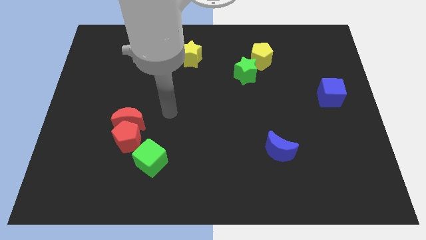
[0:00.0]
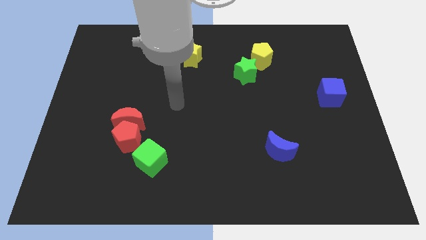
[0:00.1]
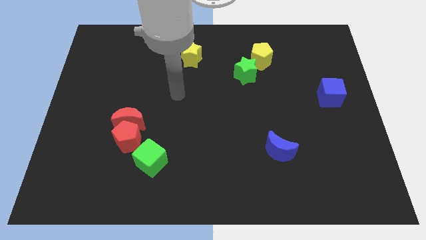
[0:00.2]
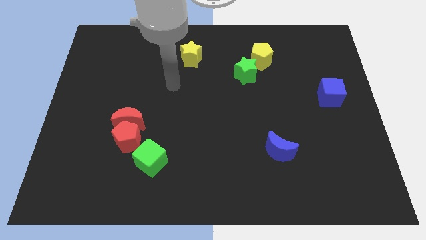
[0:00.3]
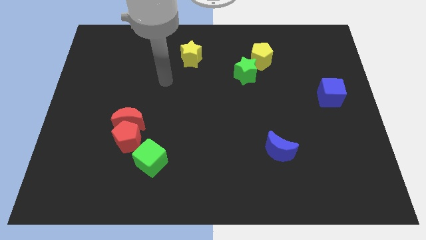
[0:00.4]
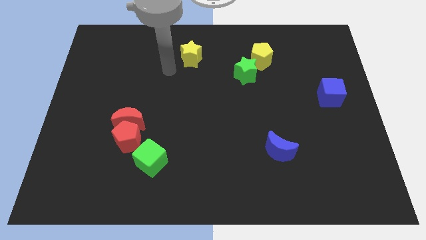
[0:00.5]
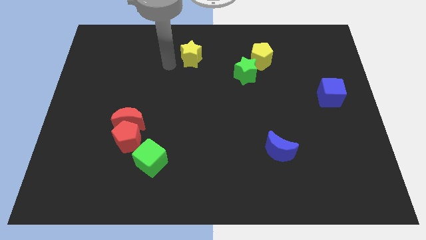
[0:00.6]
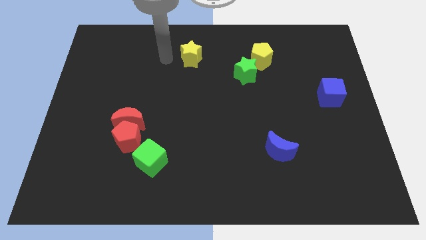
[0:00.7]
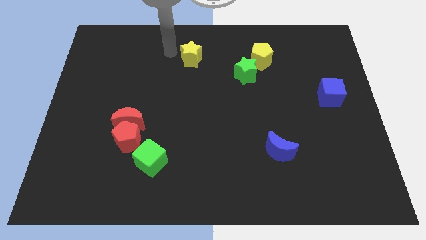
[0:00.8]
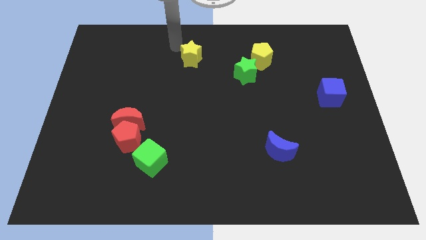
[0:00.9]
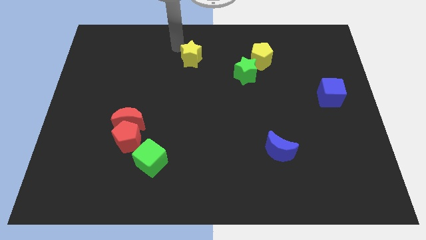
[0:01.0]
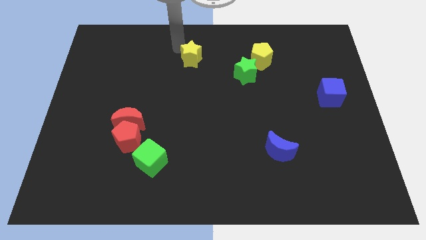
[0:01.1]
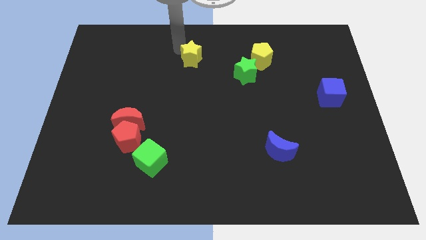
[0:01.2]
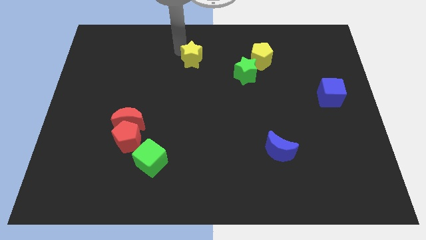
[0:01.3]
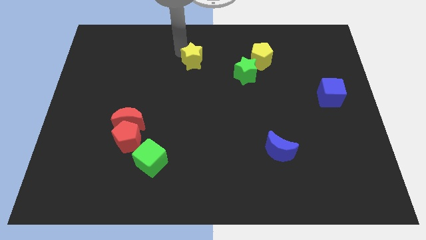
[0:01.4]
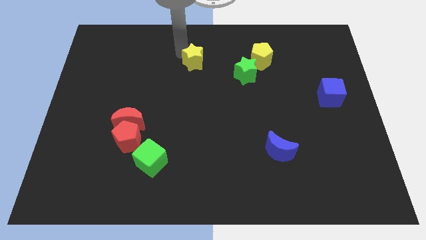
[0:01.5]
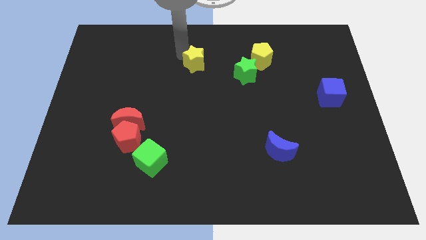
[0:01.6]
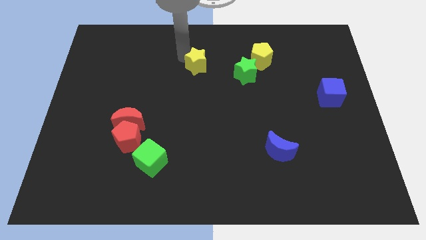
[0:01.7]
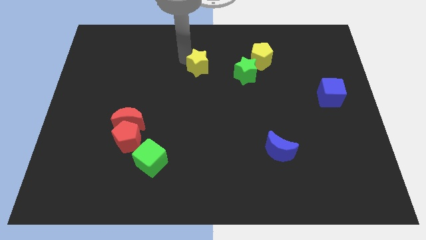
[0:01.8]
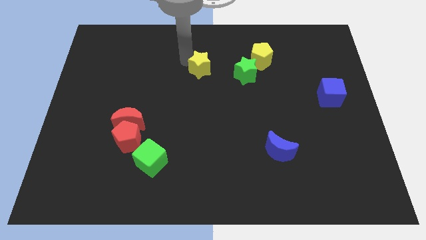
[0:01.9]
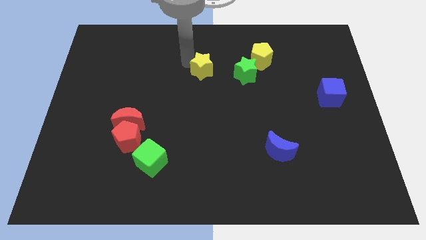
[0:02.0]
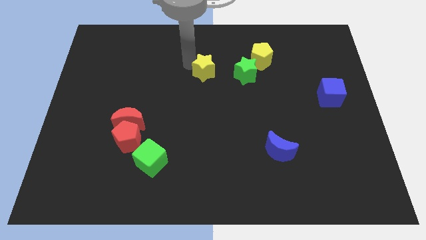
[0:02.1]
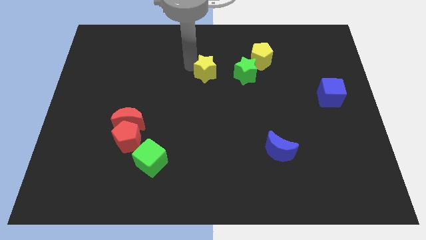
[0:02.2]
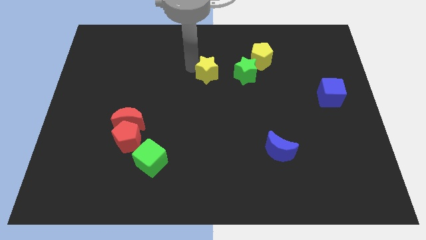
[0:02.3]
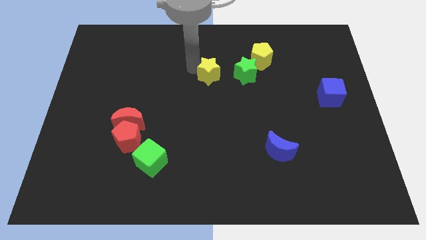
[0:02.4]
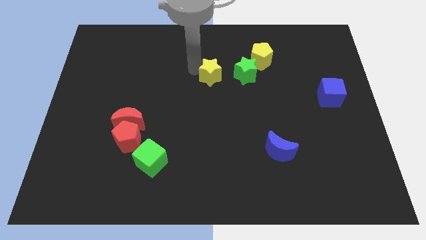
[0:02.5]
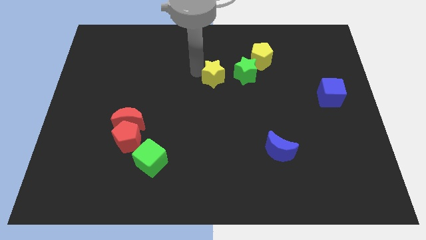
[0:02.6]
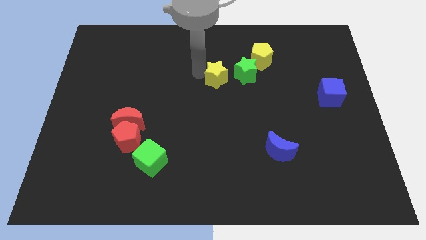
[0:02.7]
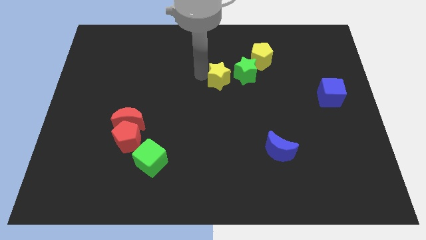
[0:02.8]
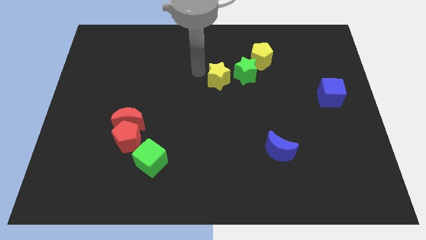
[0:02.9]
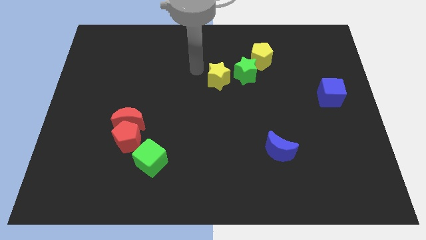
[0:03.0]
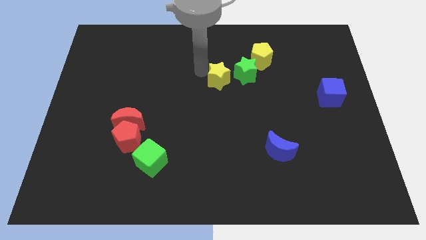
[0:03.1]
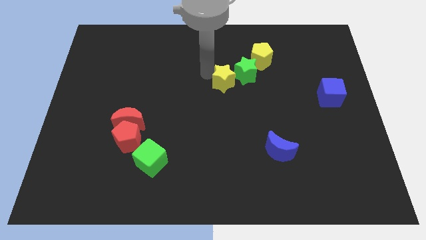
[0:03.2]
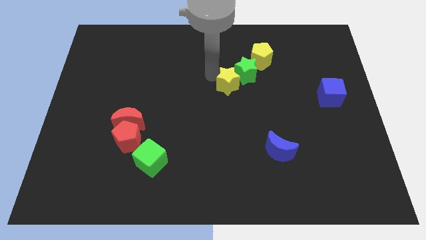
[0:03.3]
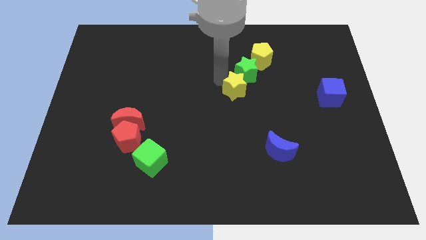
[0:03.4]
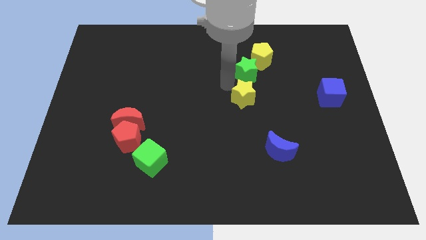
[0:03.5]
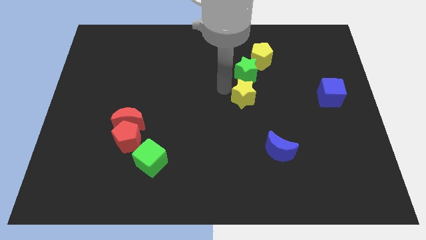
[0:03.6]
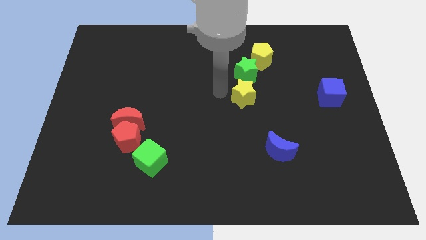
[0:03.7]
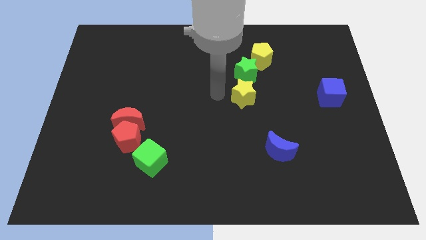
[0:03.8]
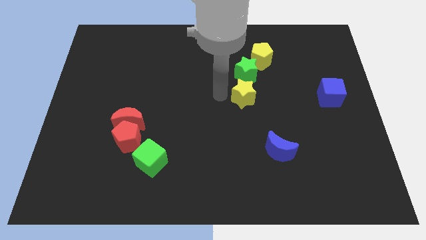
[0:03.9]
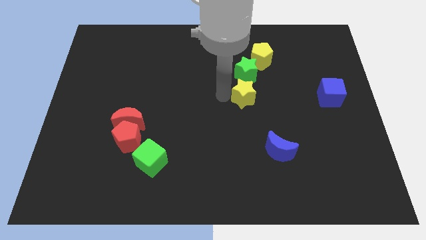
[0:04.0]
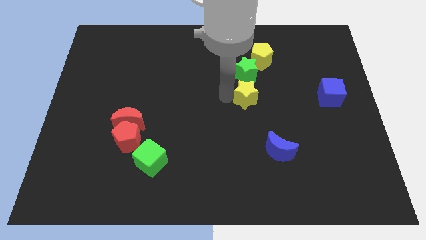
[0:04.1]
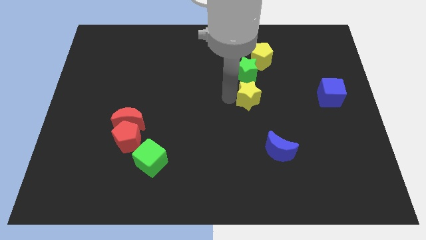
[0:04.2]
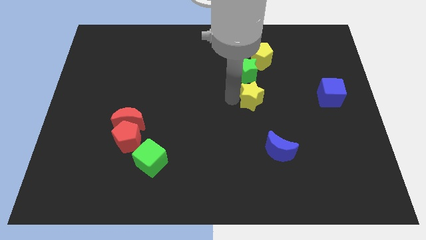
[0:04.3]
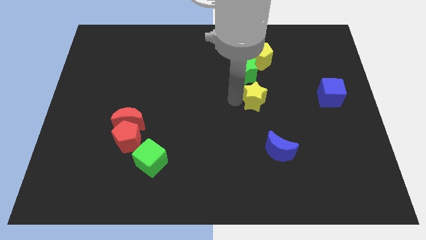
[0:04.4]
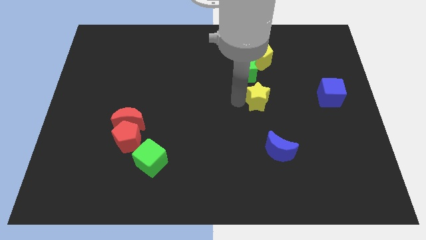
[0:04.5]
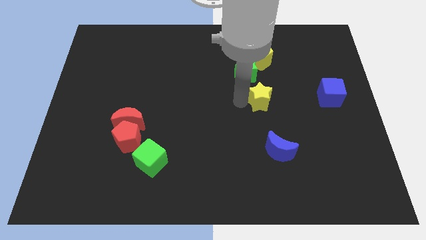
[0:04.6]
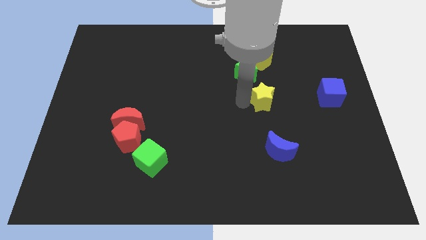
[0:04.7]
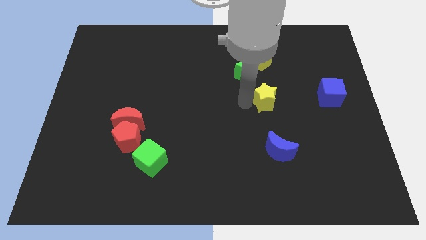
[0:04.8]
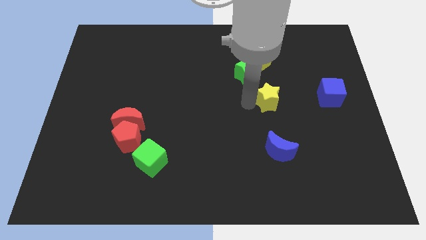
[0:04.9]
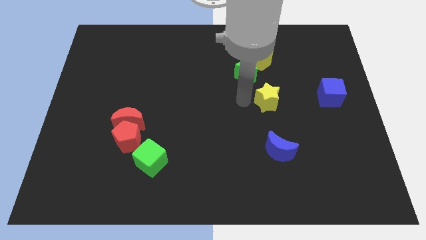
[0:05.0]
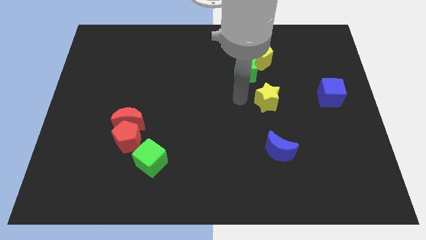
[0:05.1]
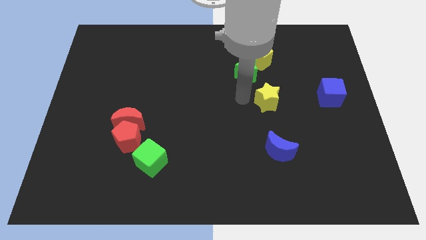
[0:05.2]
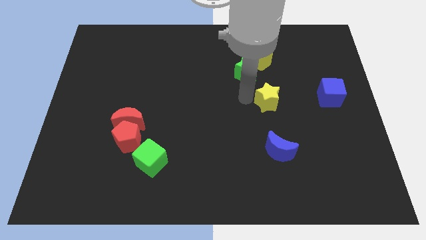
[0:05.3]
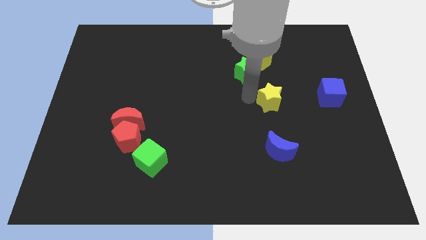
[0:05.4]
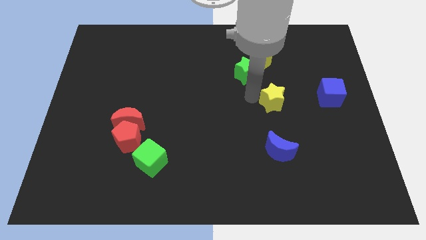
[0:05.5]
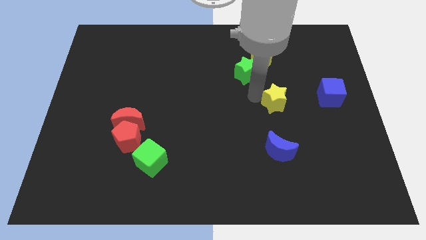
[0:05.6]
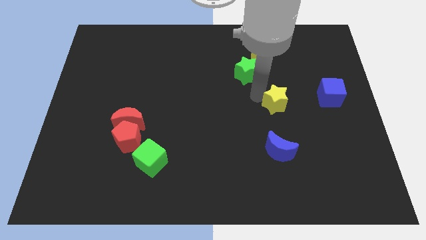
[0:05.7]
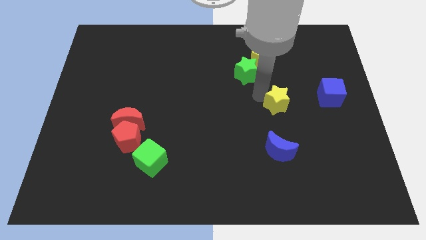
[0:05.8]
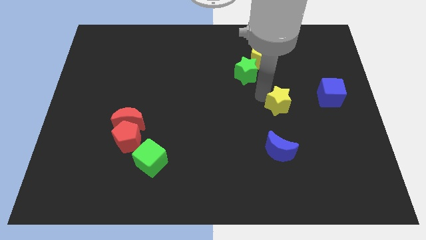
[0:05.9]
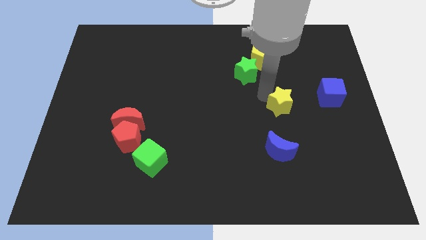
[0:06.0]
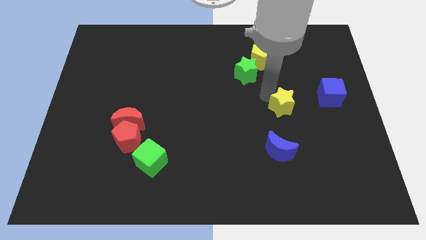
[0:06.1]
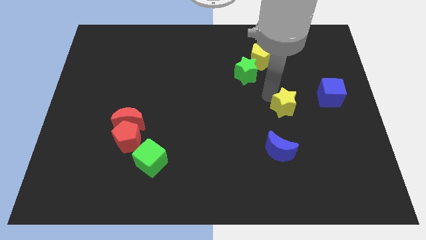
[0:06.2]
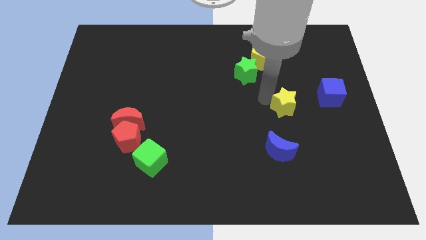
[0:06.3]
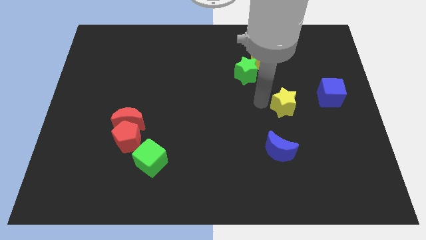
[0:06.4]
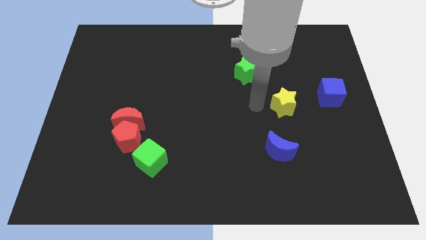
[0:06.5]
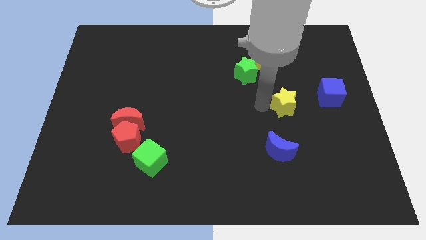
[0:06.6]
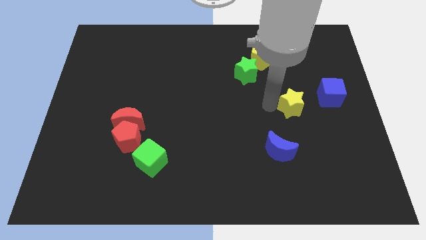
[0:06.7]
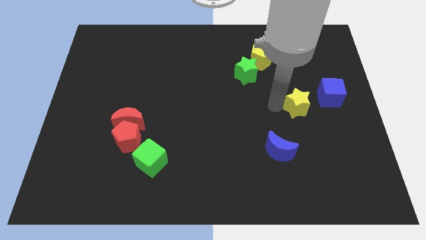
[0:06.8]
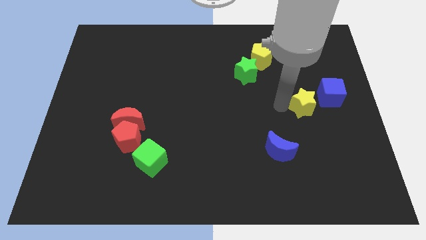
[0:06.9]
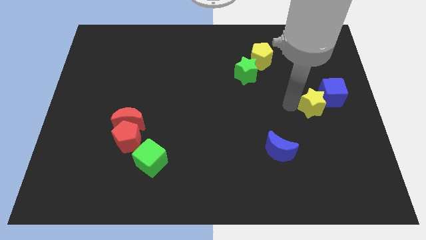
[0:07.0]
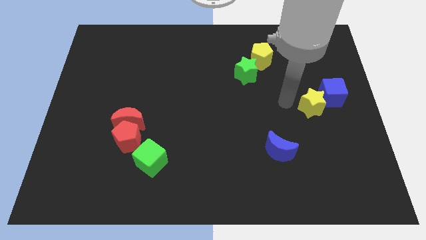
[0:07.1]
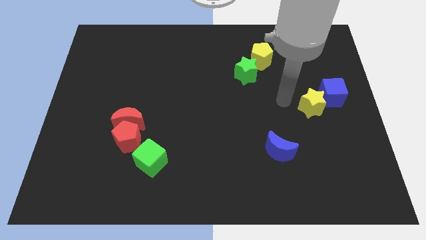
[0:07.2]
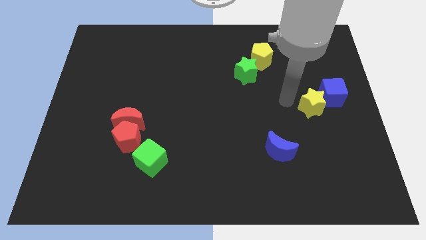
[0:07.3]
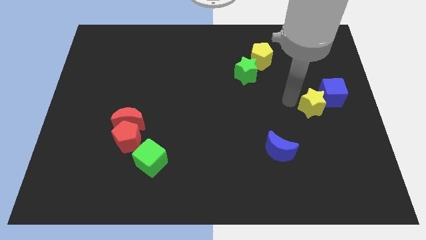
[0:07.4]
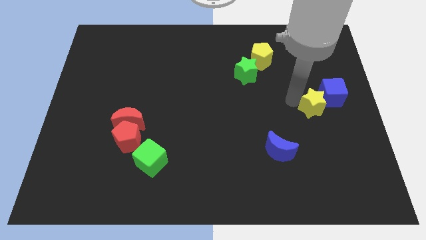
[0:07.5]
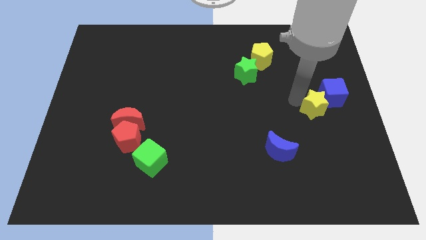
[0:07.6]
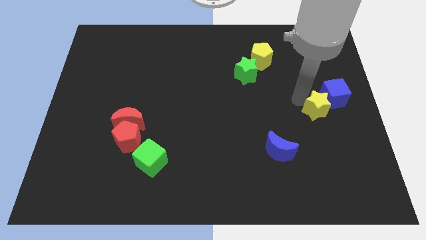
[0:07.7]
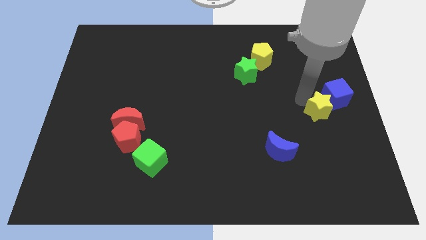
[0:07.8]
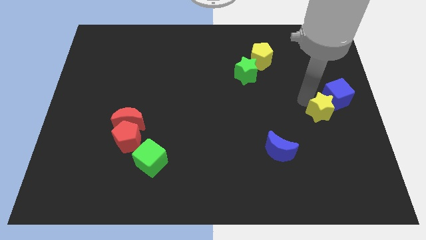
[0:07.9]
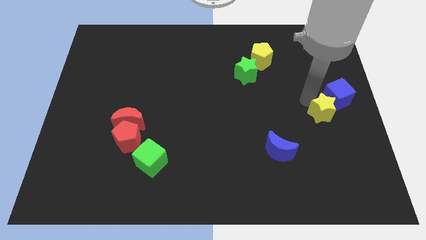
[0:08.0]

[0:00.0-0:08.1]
put the yellow star to the right side
